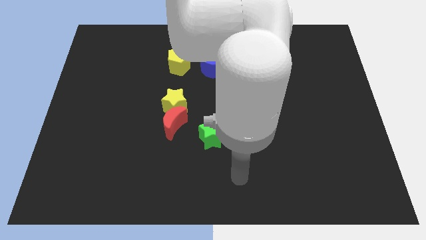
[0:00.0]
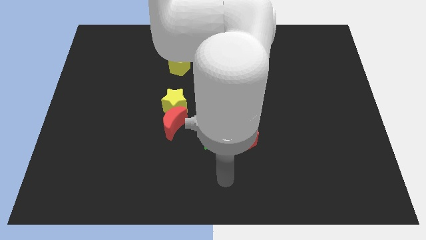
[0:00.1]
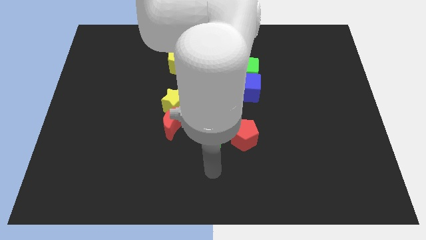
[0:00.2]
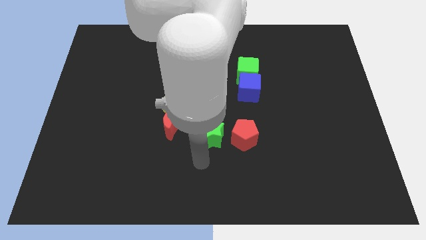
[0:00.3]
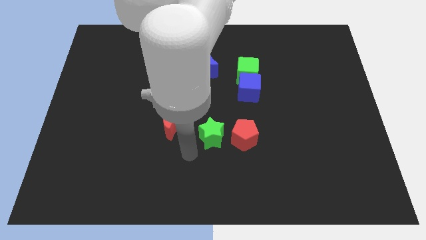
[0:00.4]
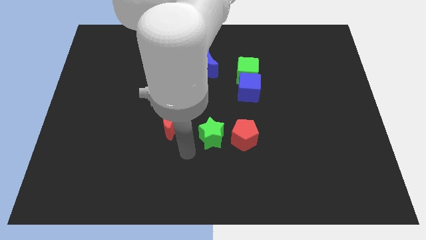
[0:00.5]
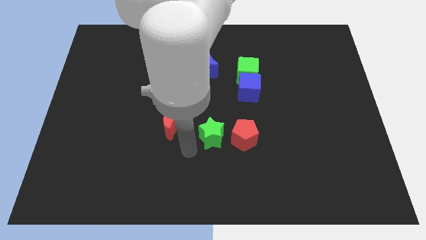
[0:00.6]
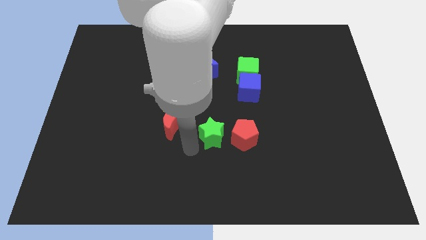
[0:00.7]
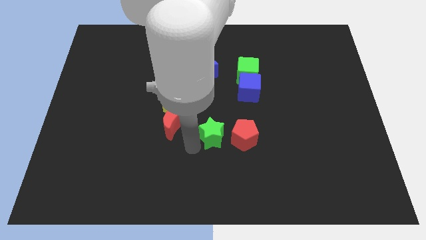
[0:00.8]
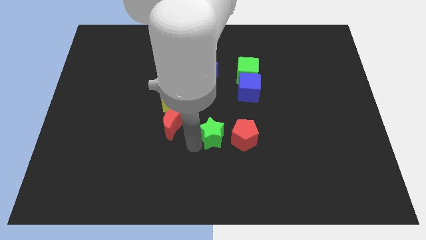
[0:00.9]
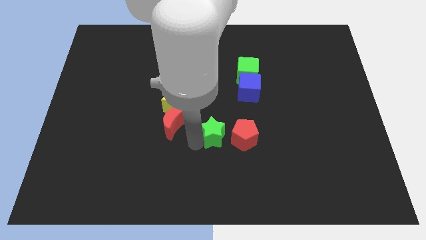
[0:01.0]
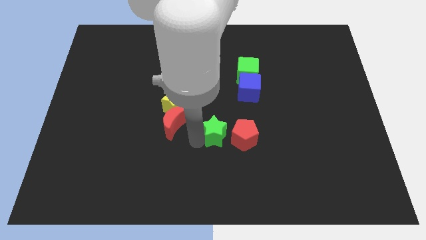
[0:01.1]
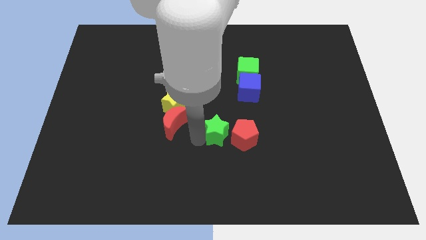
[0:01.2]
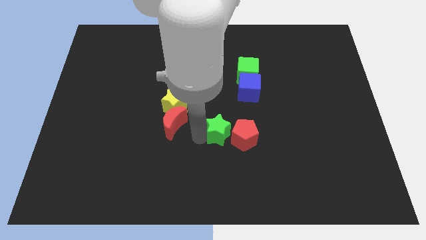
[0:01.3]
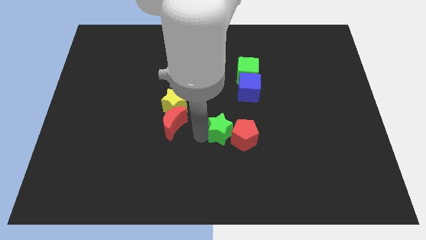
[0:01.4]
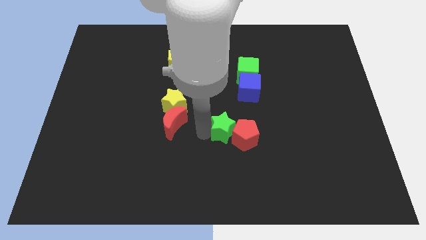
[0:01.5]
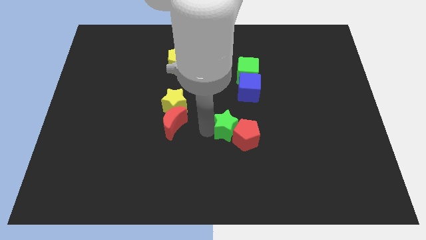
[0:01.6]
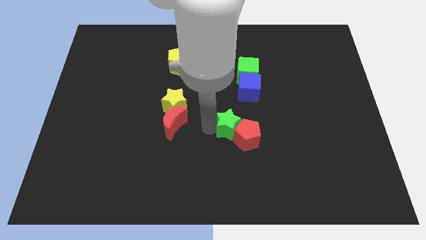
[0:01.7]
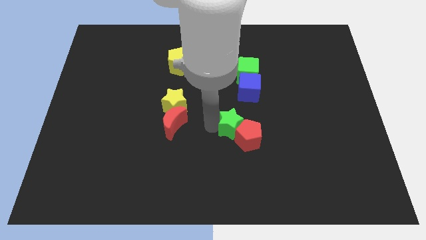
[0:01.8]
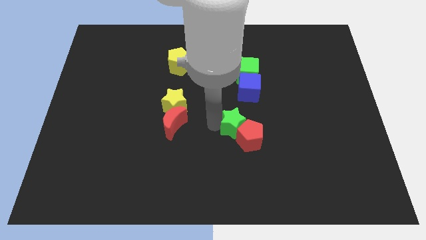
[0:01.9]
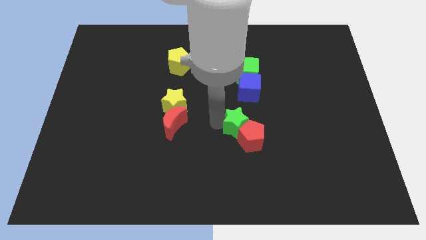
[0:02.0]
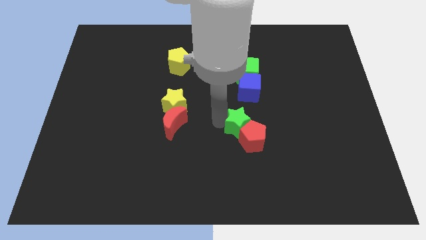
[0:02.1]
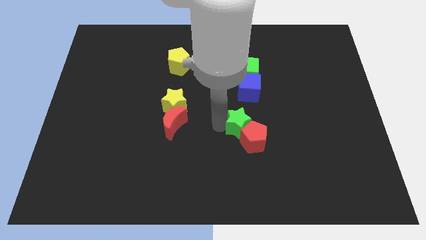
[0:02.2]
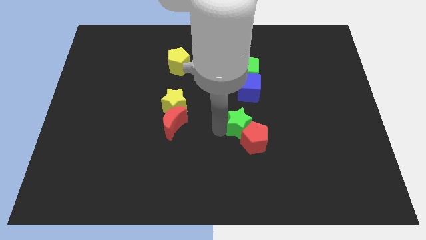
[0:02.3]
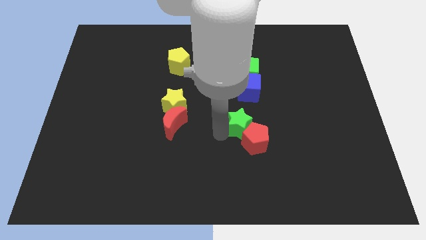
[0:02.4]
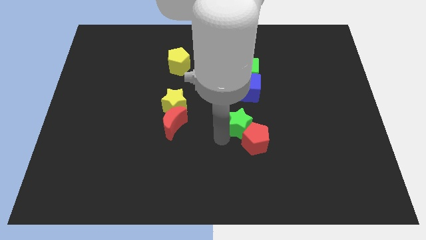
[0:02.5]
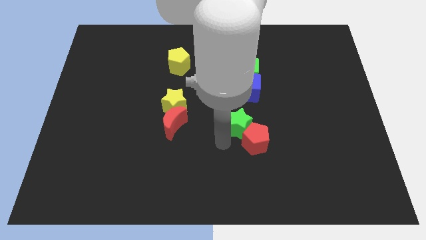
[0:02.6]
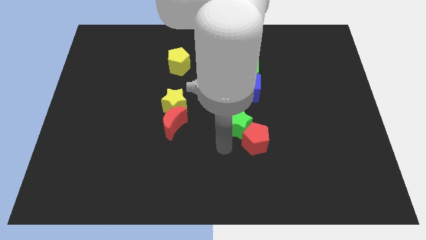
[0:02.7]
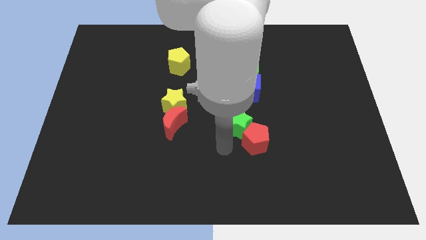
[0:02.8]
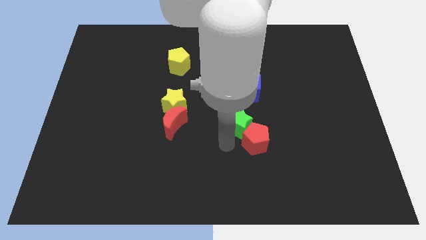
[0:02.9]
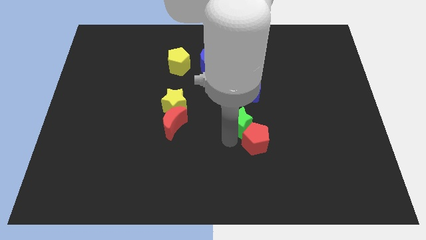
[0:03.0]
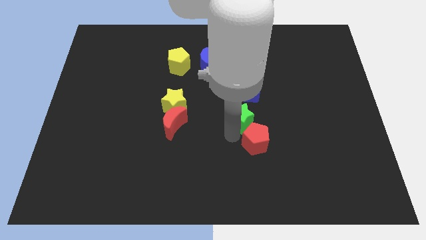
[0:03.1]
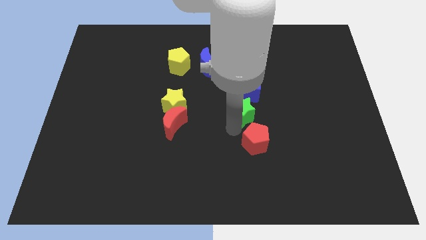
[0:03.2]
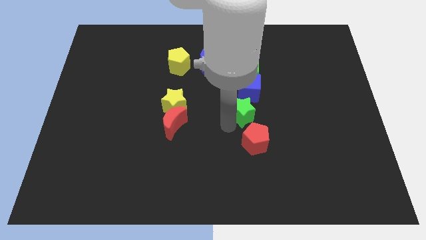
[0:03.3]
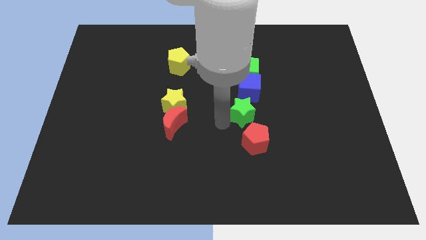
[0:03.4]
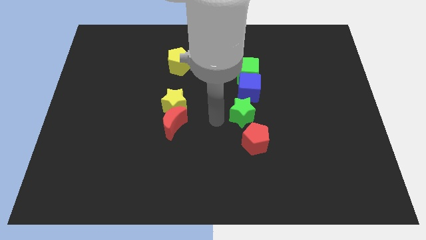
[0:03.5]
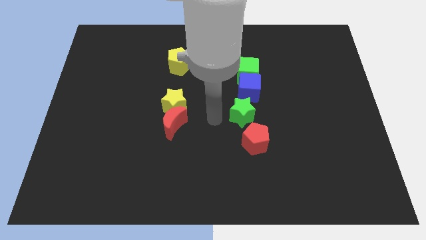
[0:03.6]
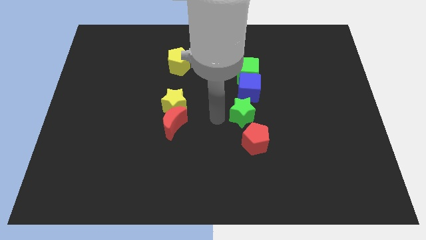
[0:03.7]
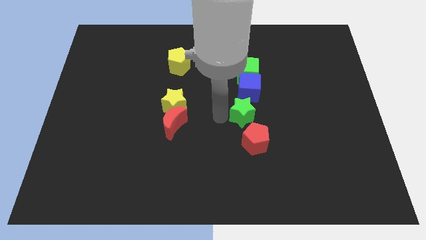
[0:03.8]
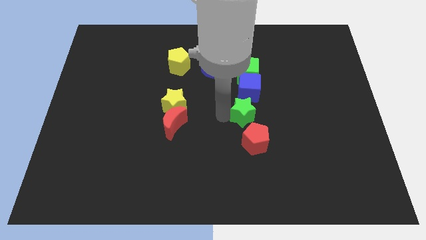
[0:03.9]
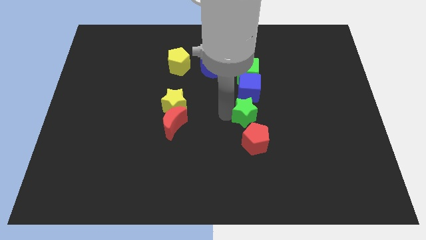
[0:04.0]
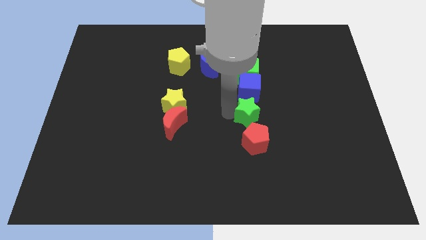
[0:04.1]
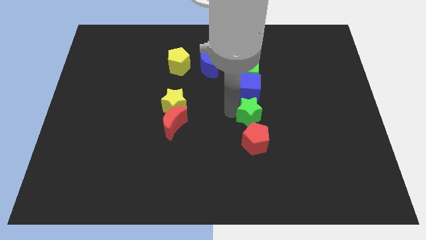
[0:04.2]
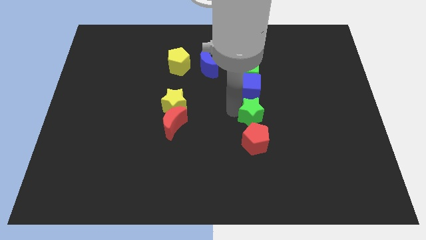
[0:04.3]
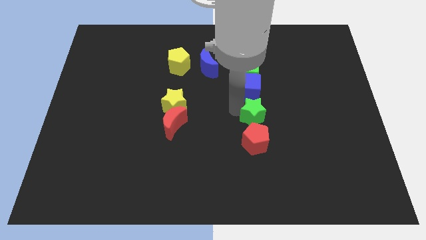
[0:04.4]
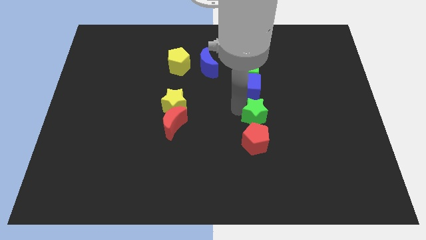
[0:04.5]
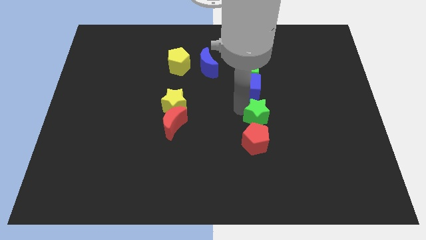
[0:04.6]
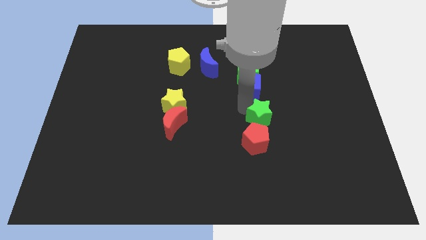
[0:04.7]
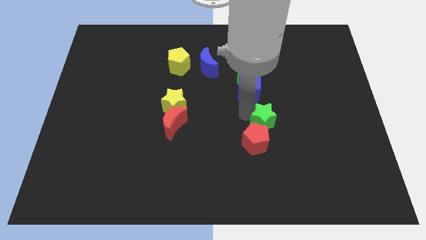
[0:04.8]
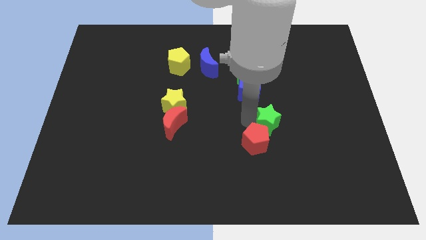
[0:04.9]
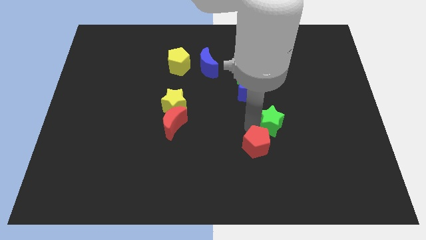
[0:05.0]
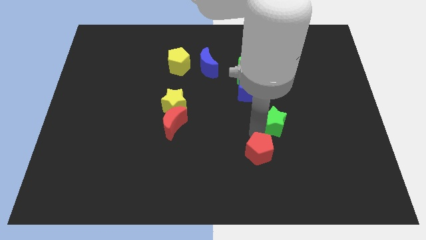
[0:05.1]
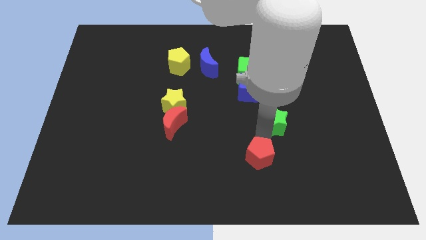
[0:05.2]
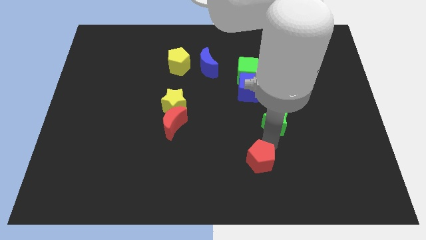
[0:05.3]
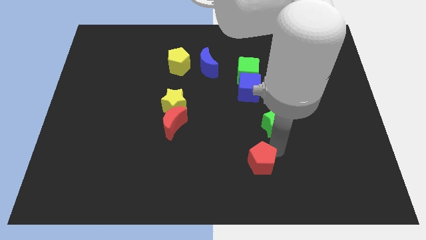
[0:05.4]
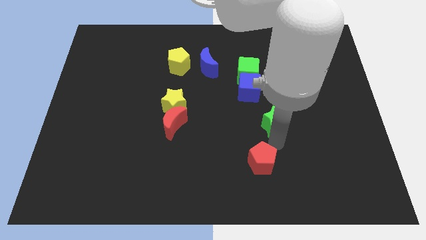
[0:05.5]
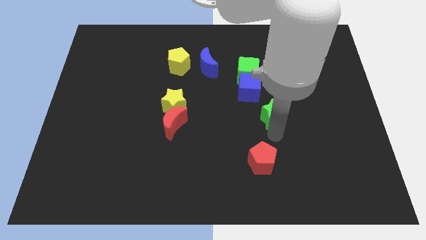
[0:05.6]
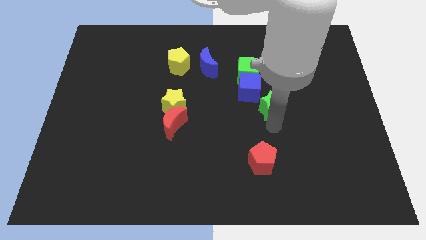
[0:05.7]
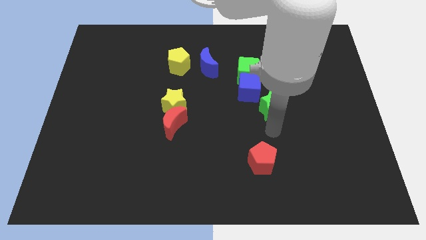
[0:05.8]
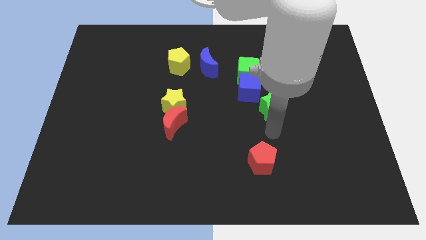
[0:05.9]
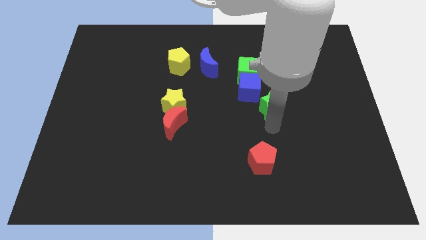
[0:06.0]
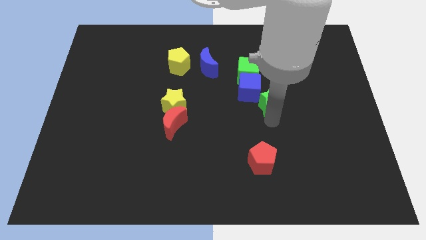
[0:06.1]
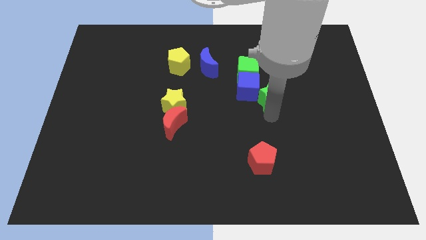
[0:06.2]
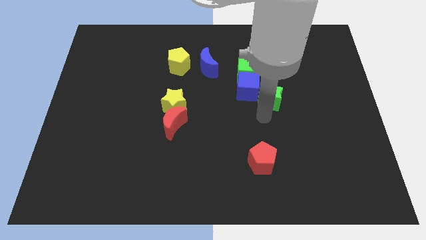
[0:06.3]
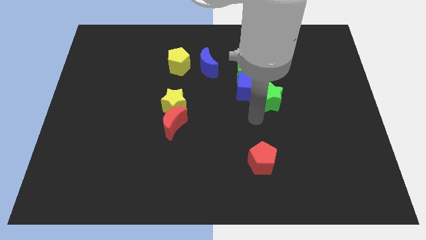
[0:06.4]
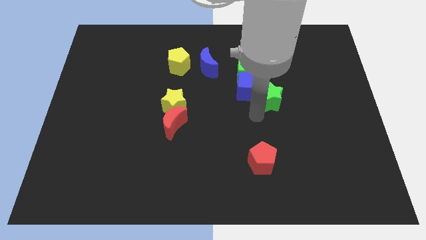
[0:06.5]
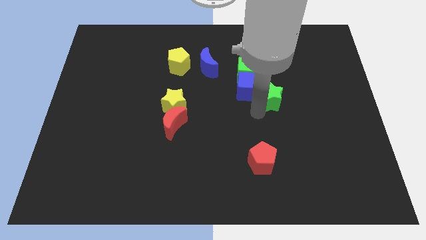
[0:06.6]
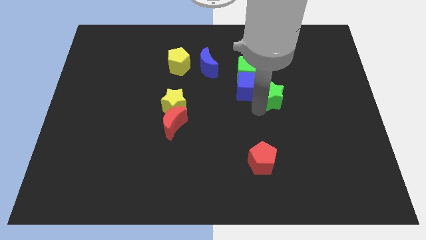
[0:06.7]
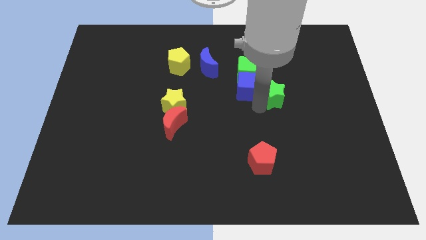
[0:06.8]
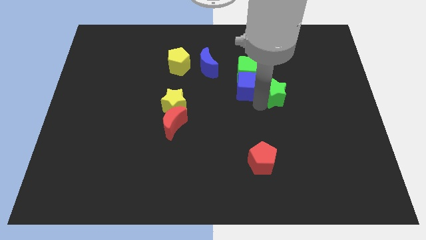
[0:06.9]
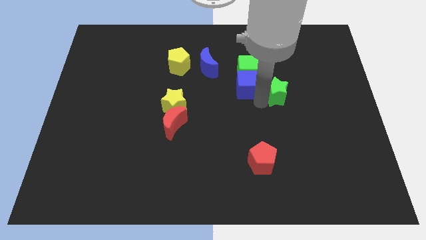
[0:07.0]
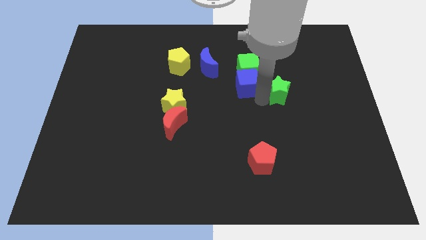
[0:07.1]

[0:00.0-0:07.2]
push the green star upwards and to the right diagonally

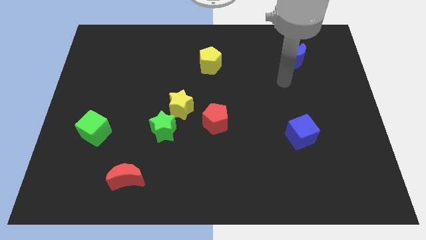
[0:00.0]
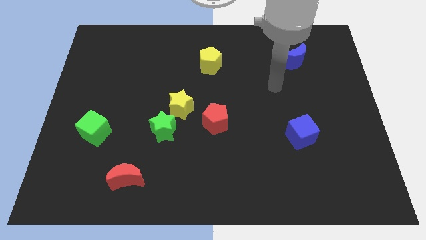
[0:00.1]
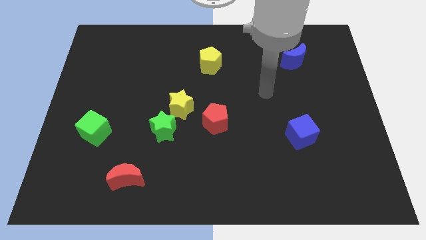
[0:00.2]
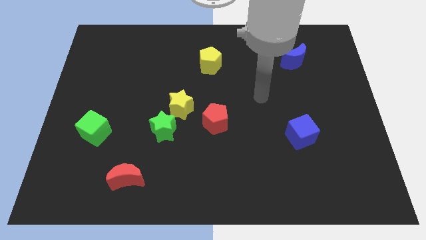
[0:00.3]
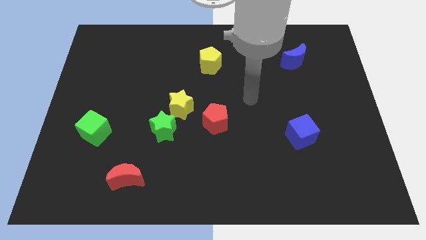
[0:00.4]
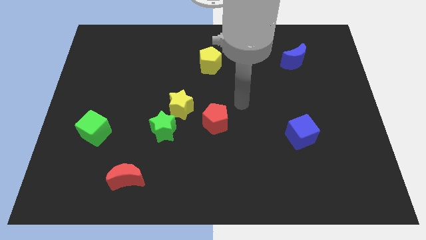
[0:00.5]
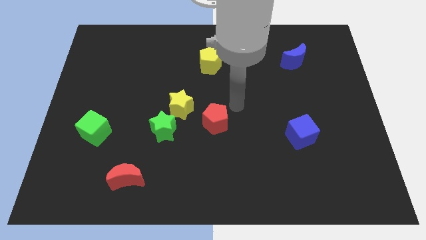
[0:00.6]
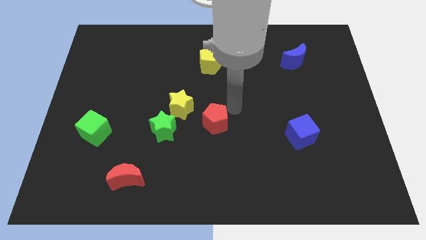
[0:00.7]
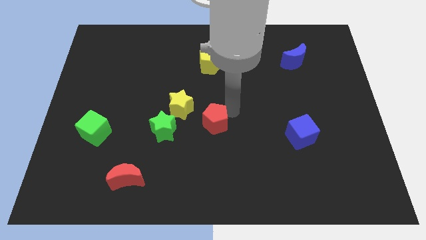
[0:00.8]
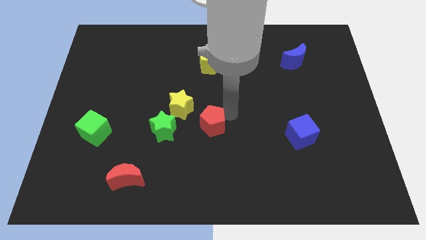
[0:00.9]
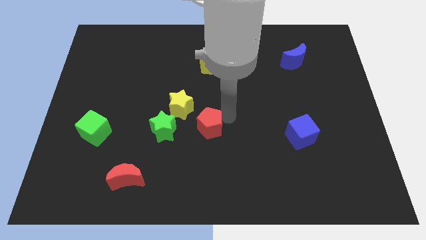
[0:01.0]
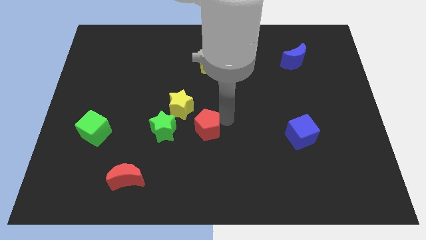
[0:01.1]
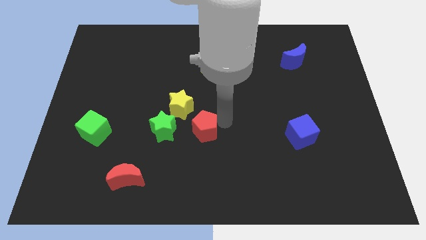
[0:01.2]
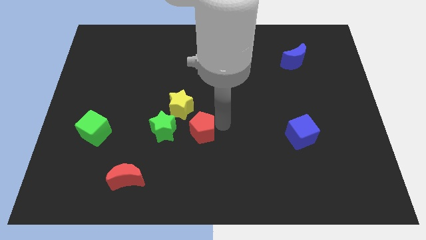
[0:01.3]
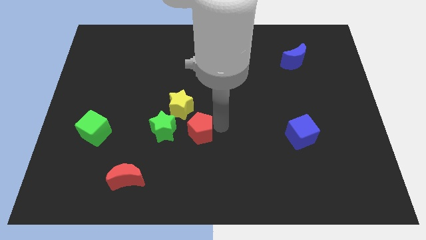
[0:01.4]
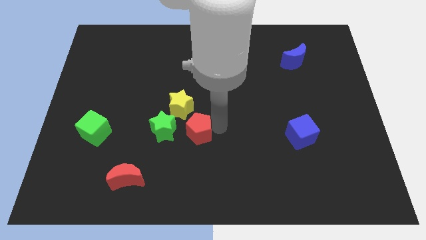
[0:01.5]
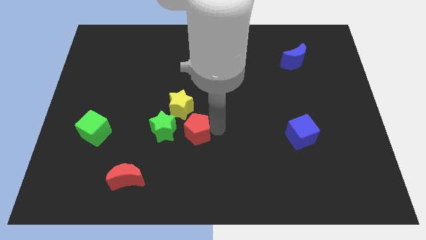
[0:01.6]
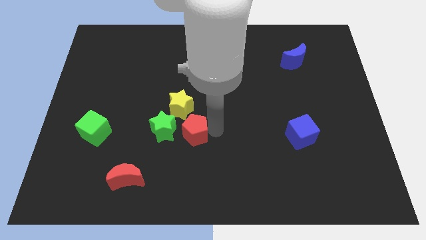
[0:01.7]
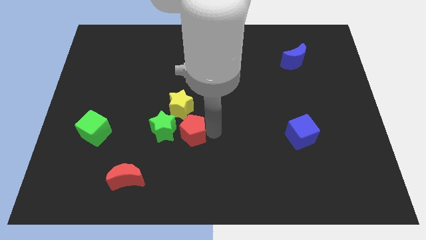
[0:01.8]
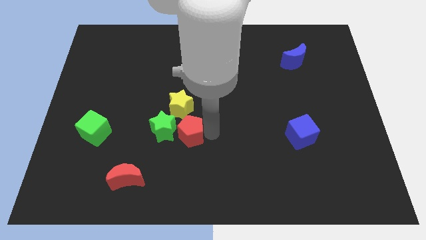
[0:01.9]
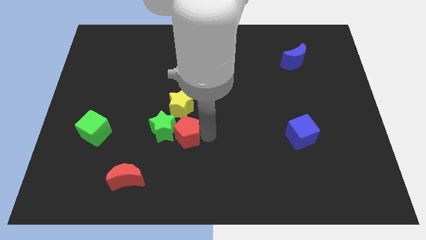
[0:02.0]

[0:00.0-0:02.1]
slide the red pentagon down and to the left a bit
